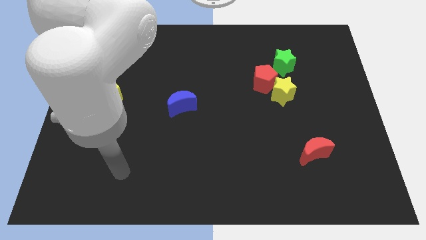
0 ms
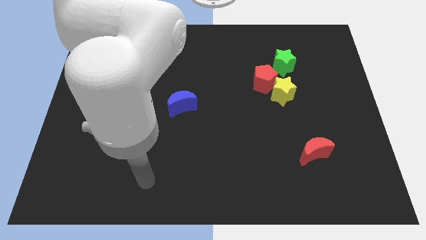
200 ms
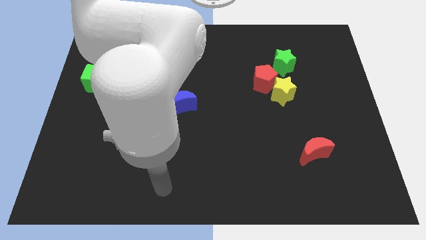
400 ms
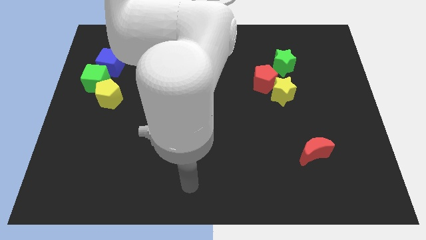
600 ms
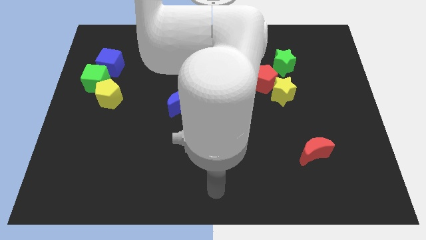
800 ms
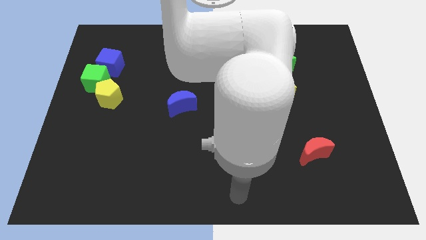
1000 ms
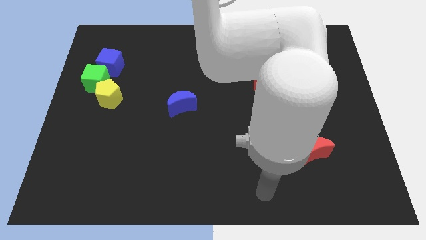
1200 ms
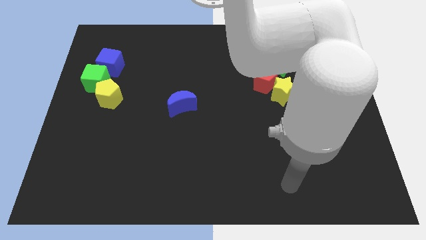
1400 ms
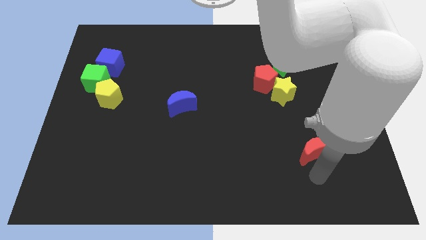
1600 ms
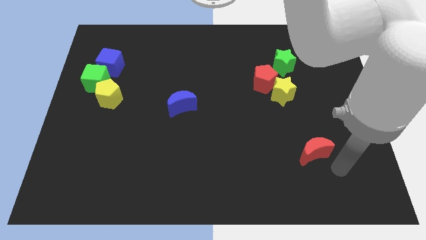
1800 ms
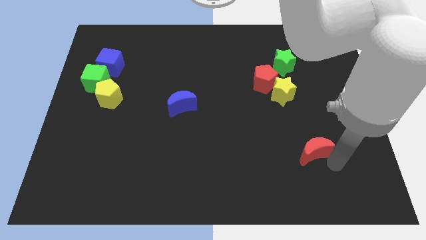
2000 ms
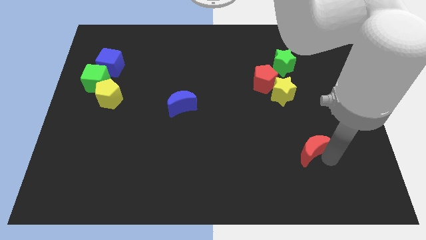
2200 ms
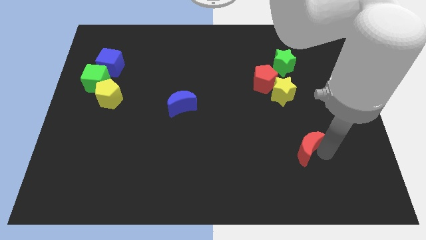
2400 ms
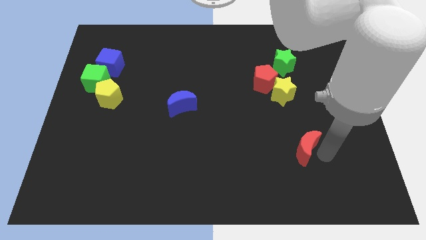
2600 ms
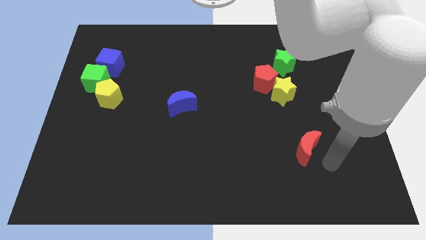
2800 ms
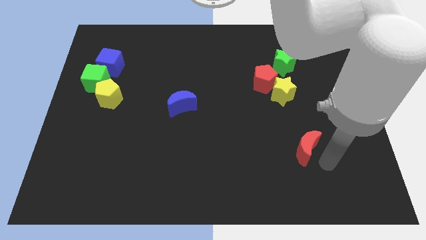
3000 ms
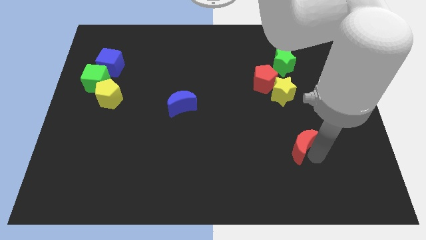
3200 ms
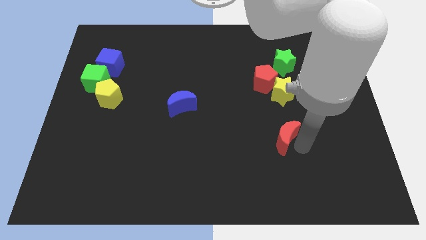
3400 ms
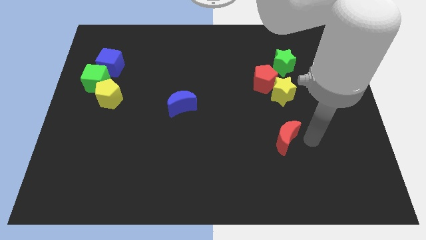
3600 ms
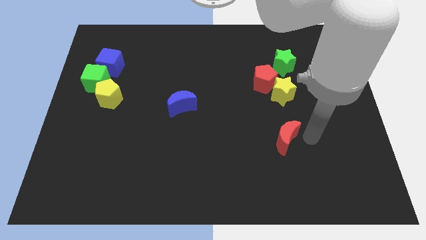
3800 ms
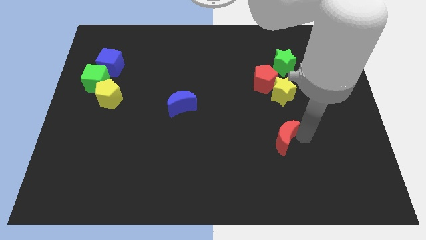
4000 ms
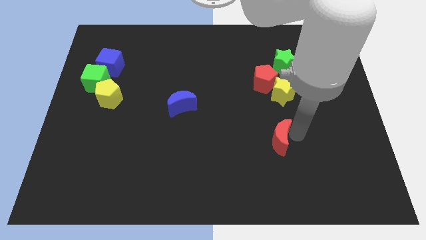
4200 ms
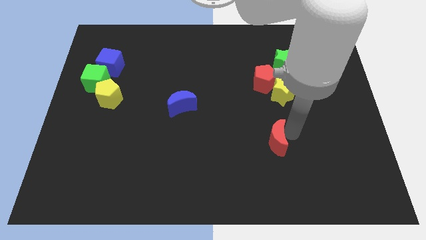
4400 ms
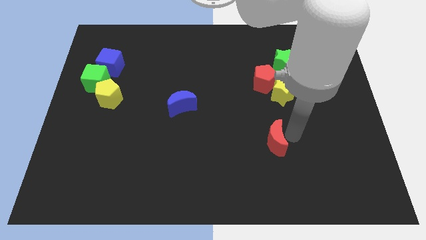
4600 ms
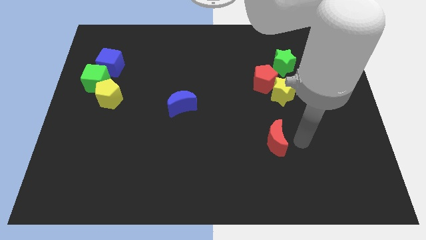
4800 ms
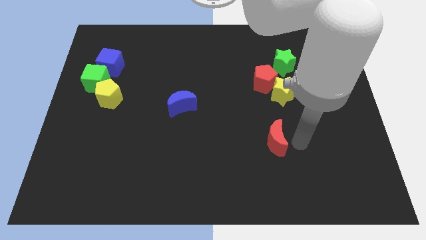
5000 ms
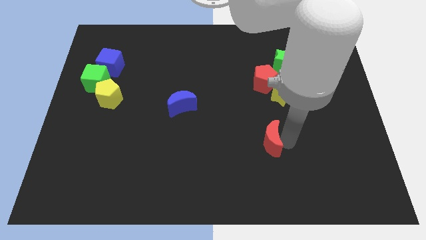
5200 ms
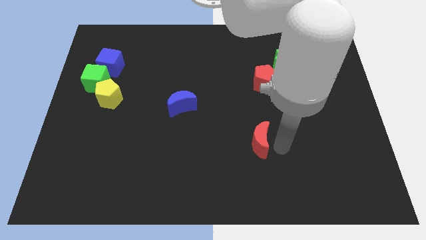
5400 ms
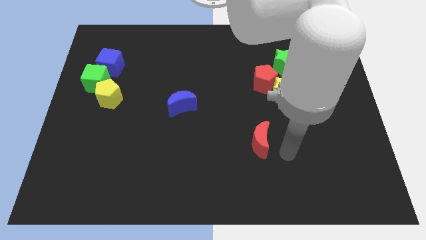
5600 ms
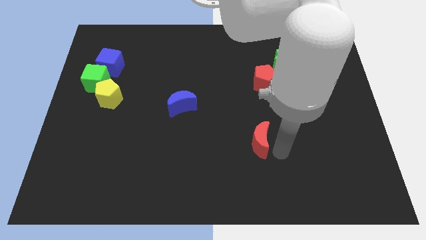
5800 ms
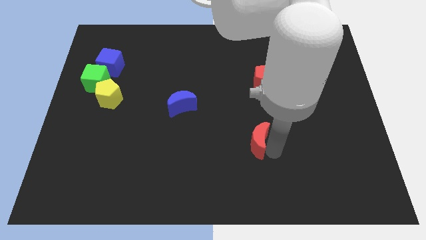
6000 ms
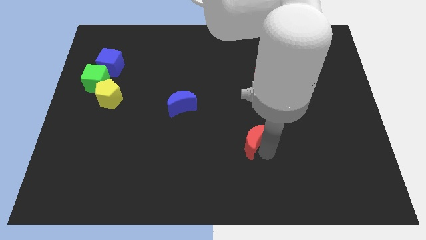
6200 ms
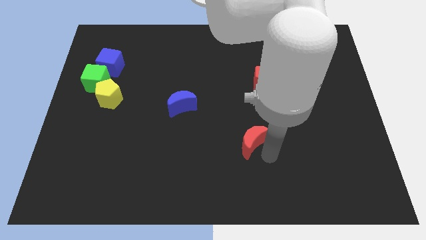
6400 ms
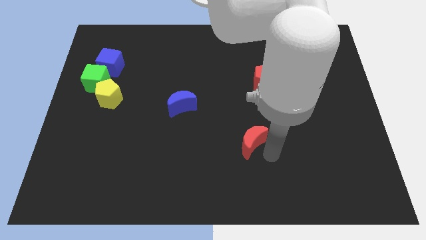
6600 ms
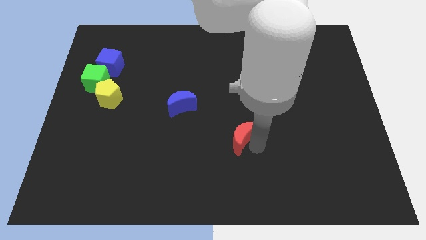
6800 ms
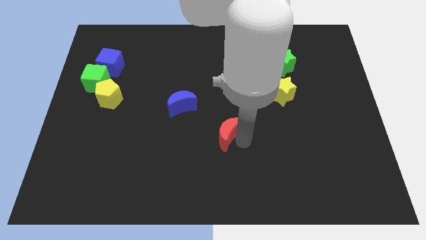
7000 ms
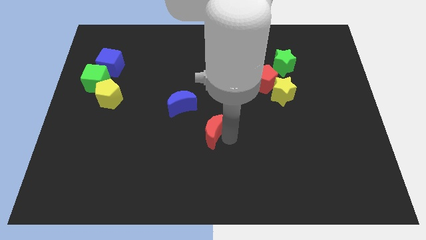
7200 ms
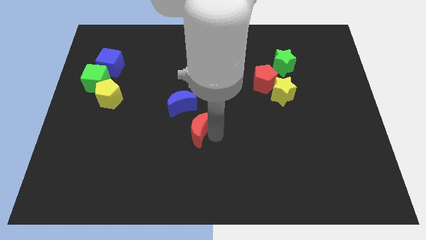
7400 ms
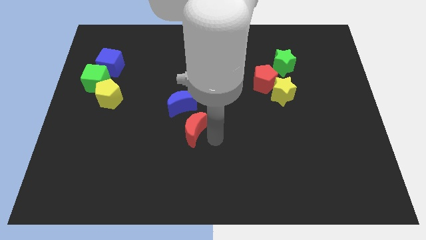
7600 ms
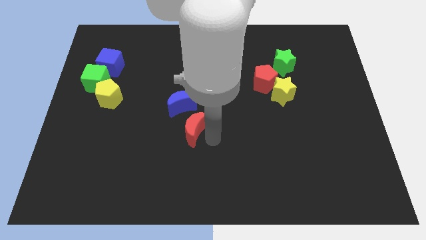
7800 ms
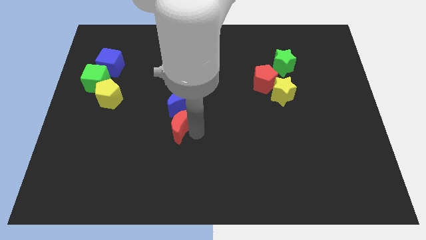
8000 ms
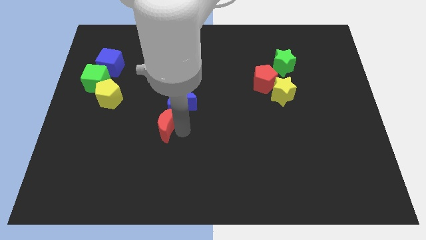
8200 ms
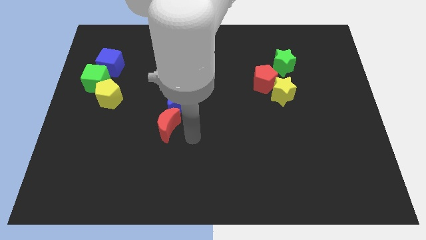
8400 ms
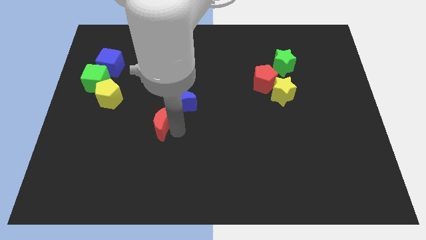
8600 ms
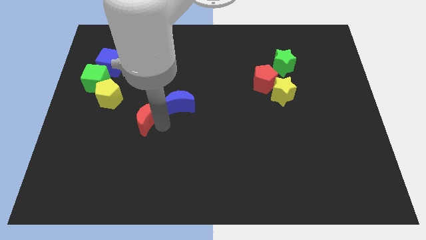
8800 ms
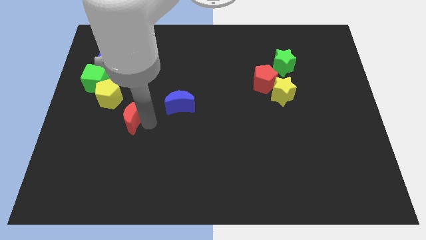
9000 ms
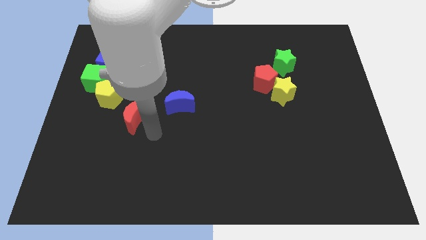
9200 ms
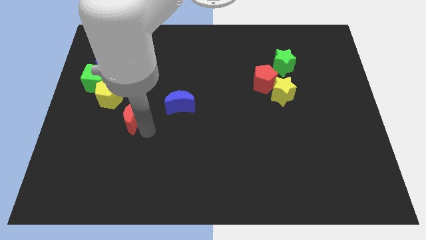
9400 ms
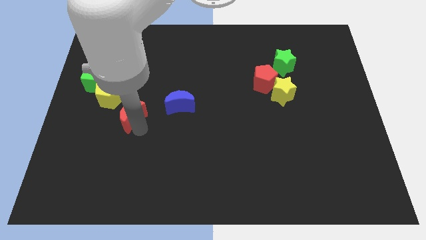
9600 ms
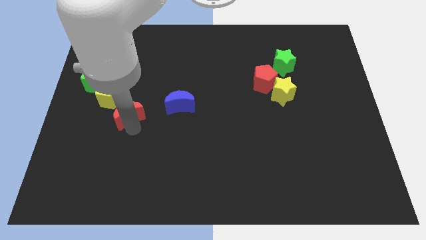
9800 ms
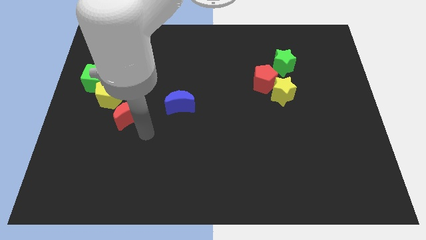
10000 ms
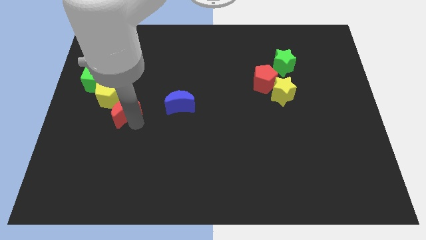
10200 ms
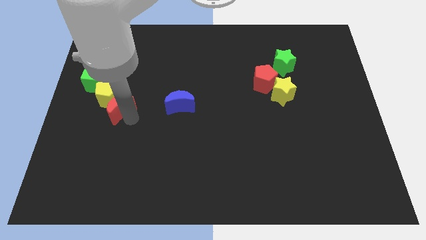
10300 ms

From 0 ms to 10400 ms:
push the red moon towards the yellow pentagon

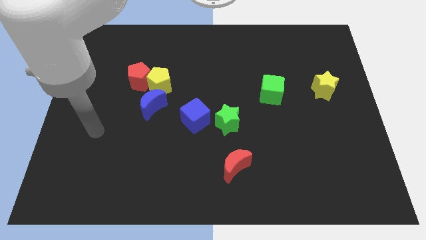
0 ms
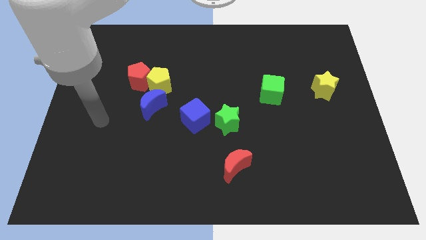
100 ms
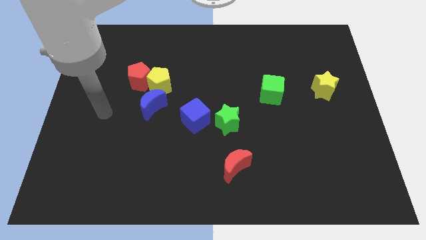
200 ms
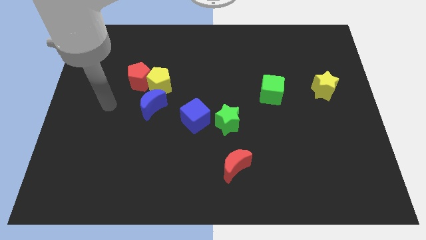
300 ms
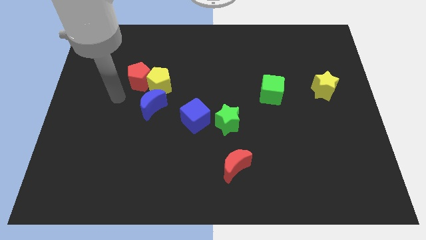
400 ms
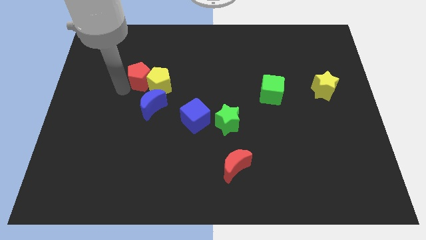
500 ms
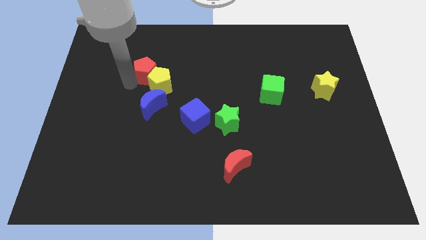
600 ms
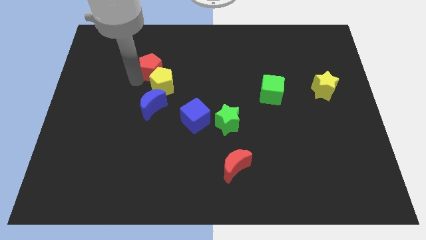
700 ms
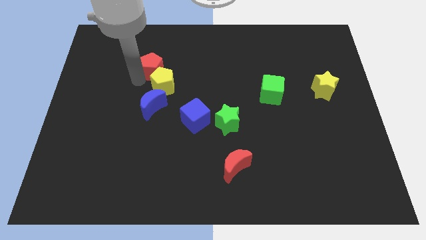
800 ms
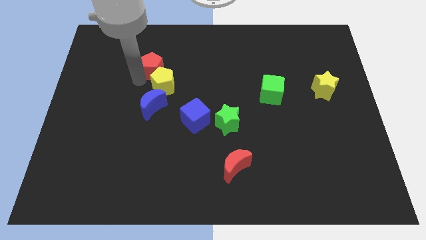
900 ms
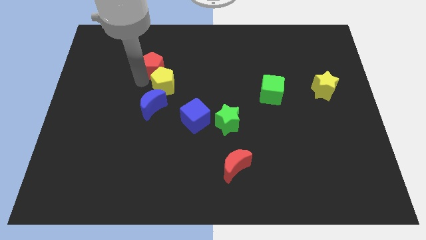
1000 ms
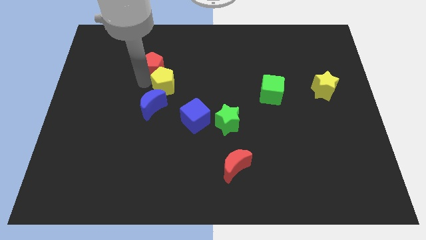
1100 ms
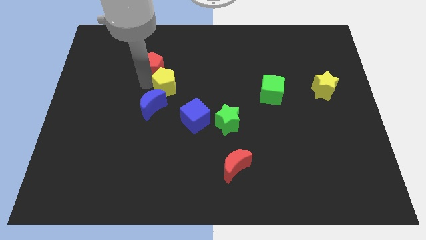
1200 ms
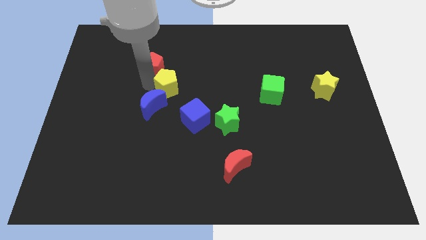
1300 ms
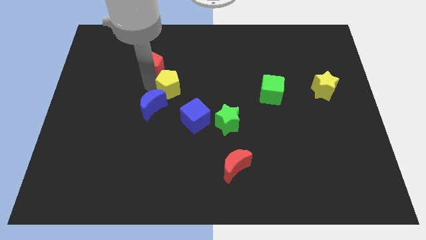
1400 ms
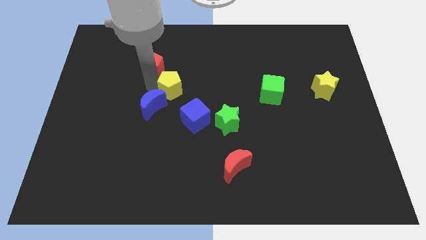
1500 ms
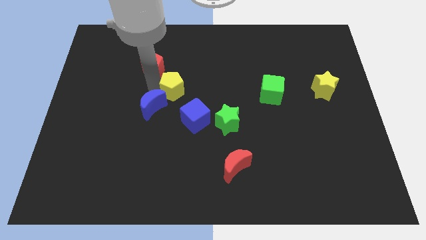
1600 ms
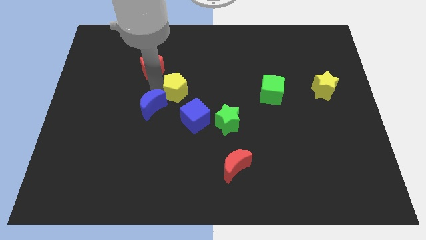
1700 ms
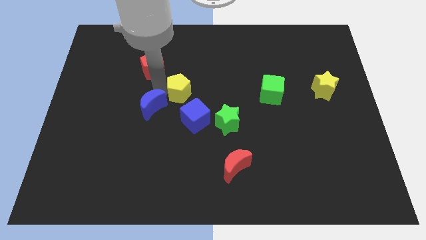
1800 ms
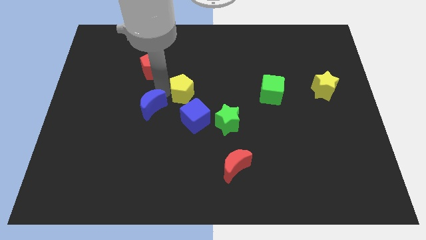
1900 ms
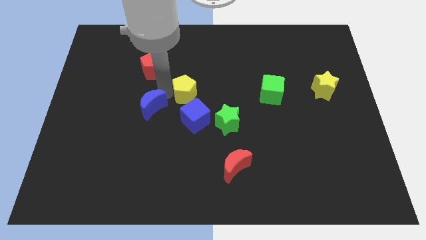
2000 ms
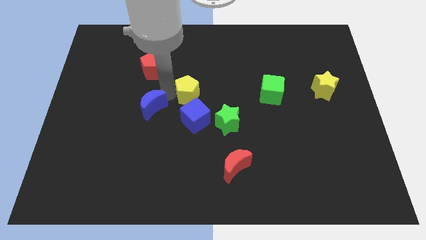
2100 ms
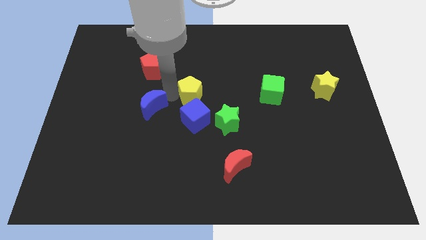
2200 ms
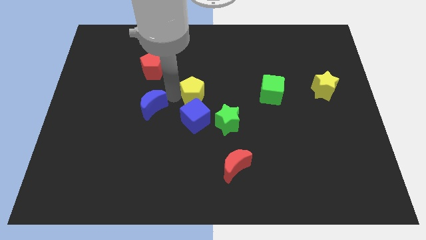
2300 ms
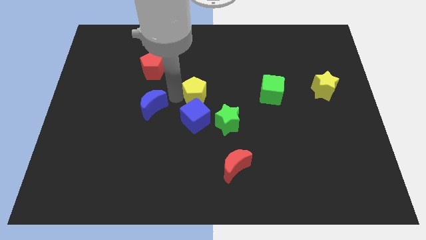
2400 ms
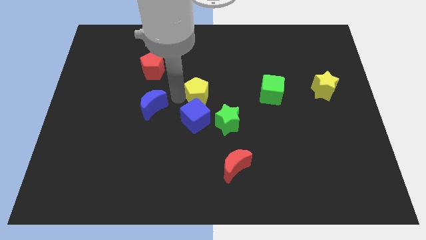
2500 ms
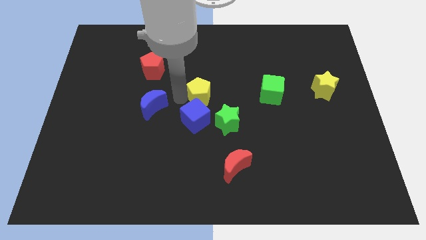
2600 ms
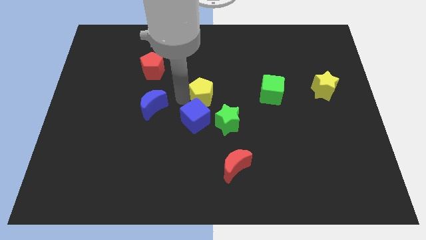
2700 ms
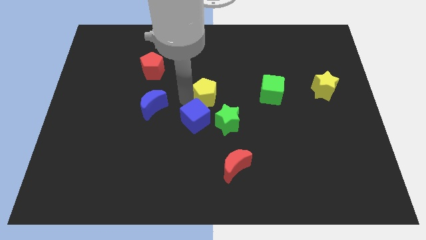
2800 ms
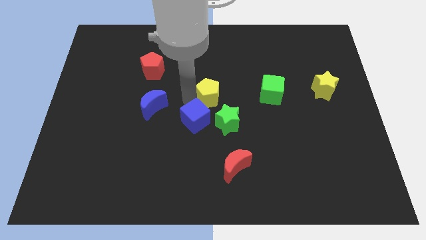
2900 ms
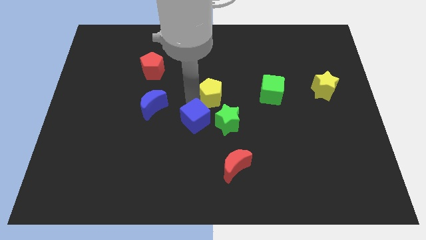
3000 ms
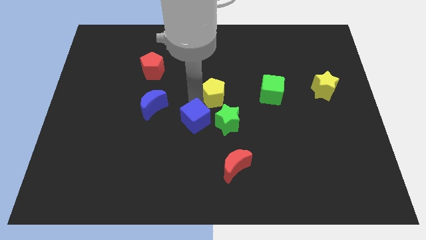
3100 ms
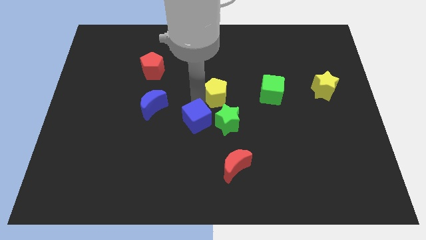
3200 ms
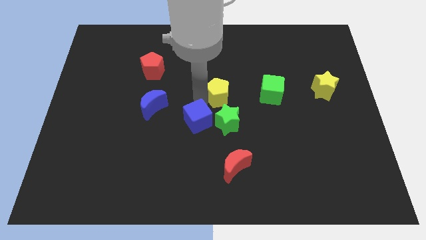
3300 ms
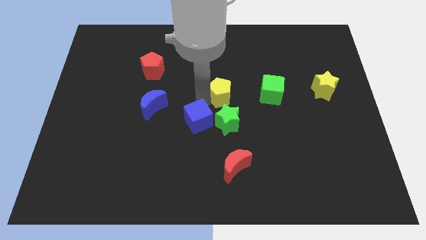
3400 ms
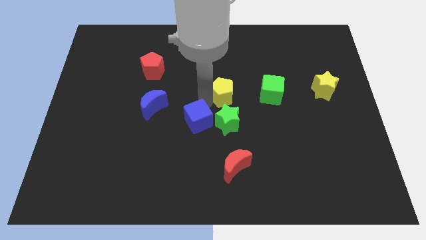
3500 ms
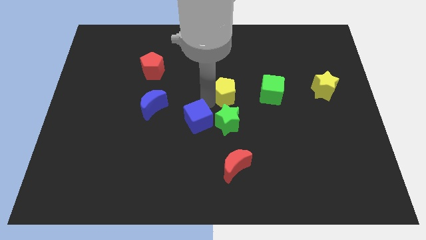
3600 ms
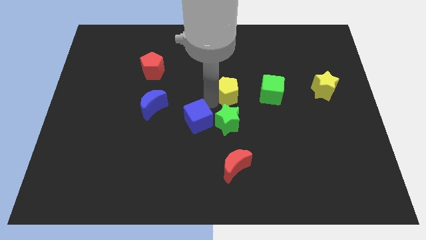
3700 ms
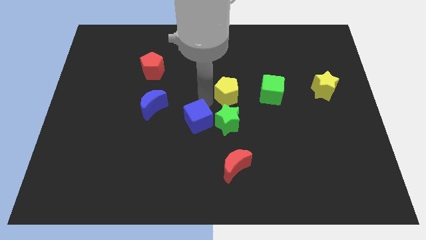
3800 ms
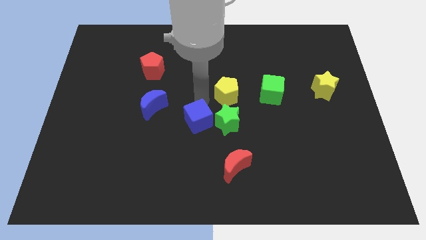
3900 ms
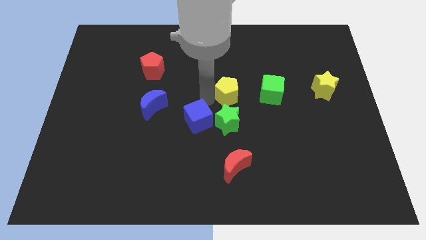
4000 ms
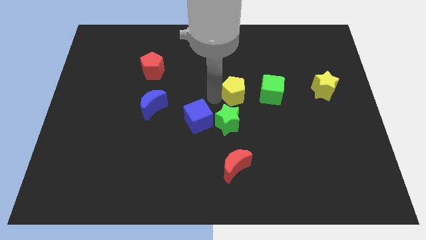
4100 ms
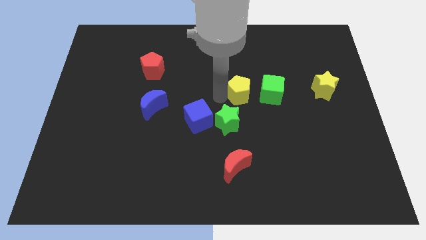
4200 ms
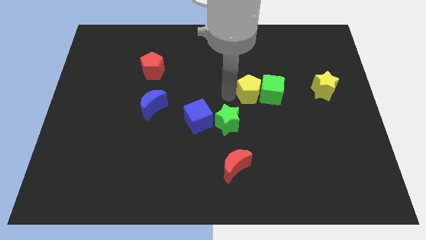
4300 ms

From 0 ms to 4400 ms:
move the yellow pentagon to the green cube
